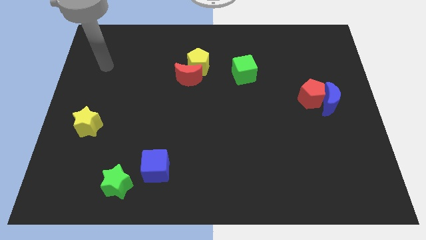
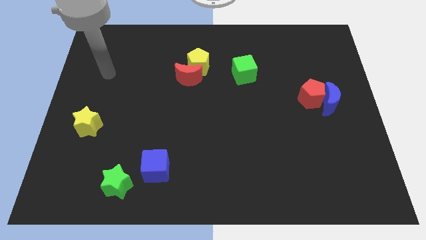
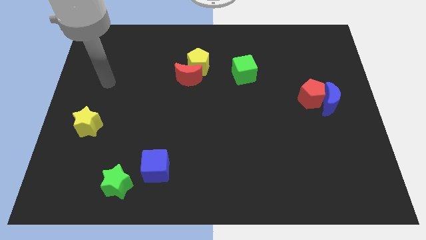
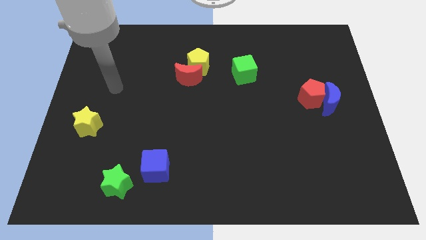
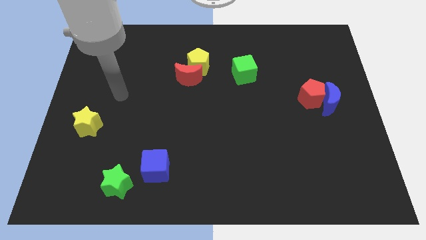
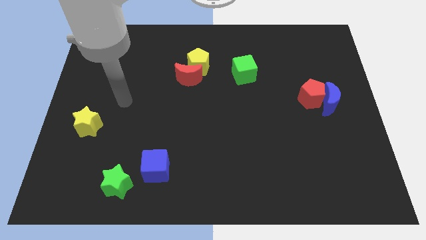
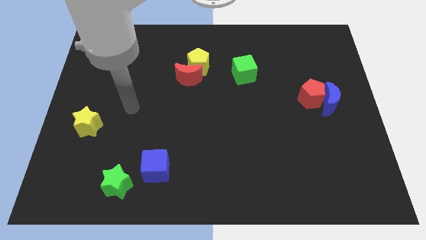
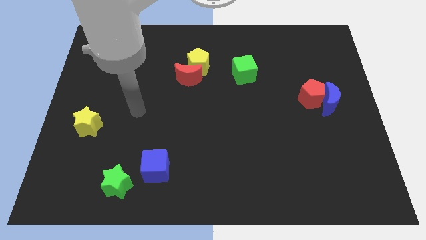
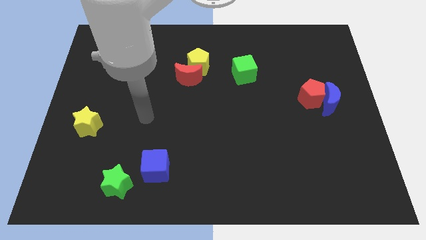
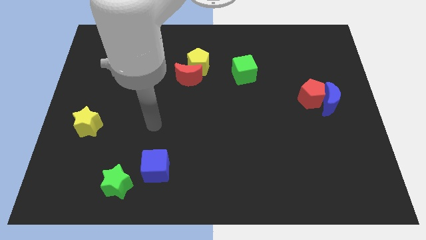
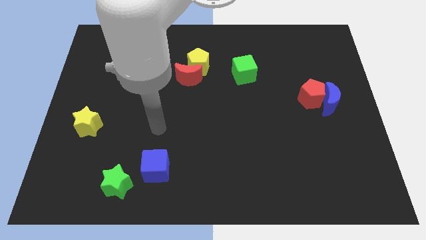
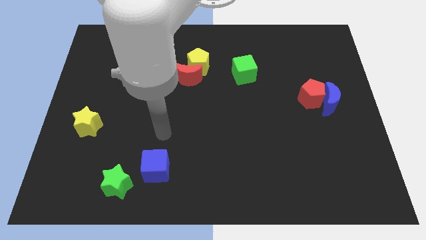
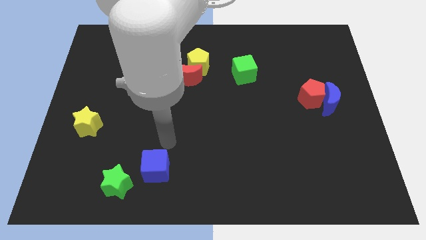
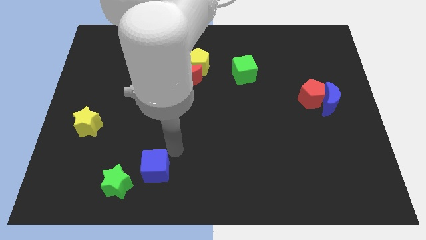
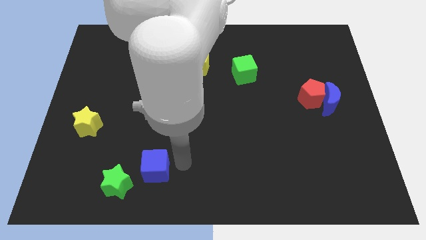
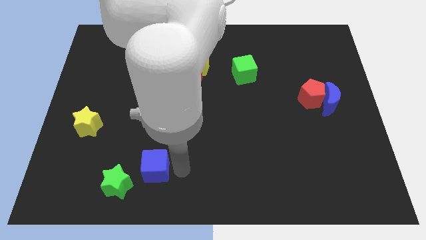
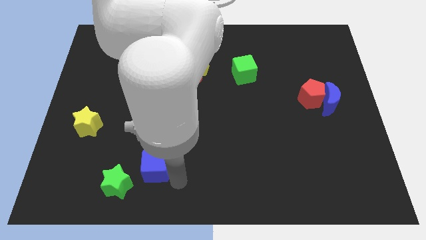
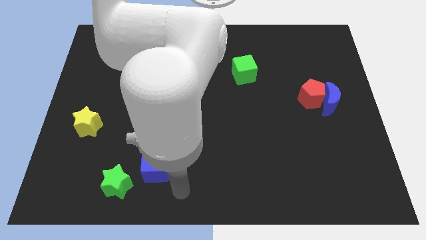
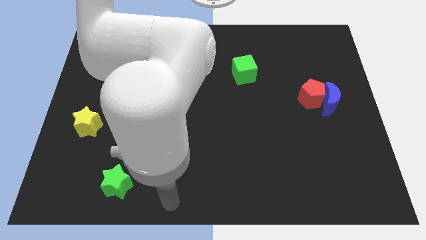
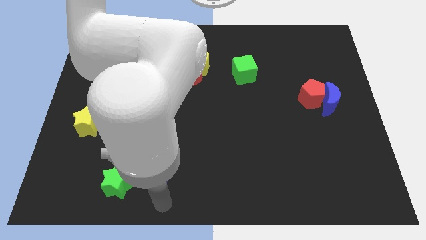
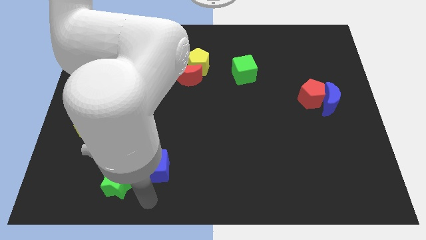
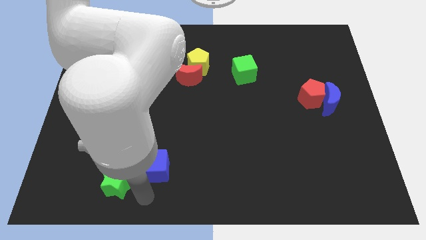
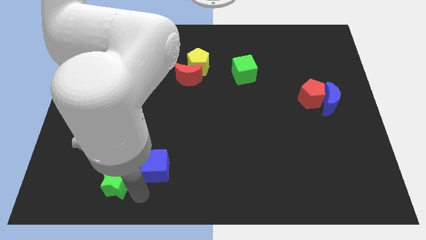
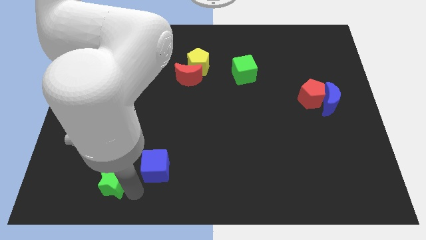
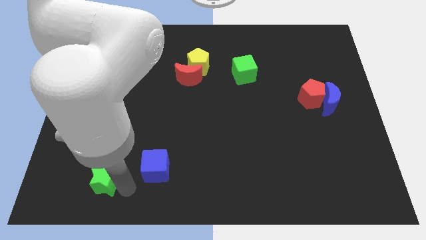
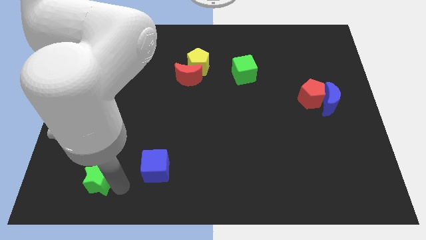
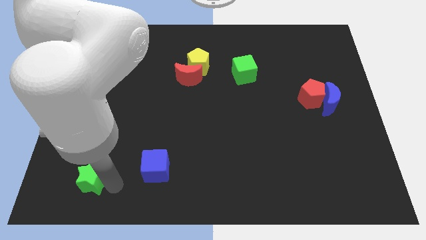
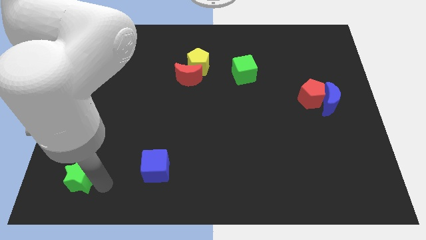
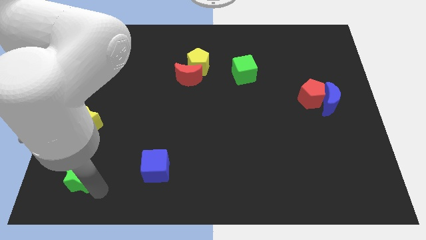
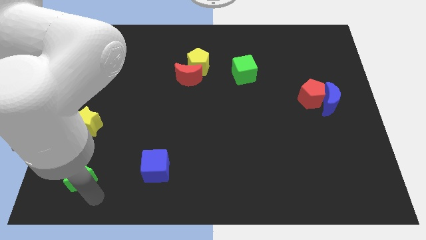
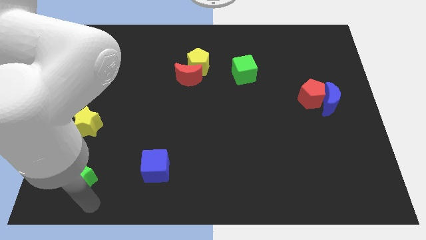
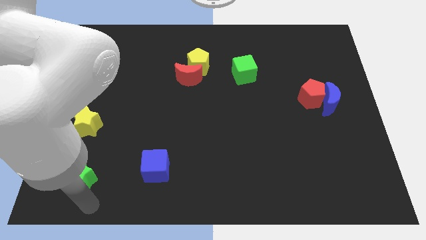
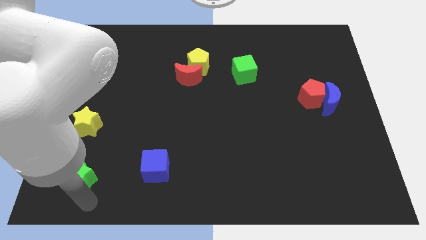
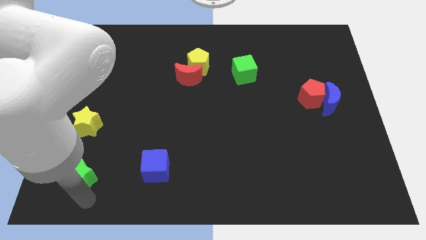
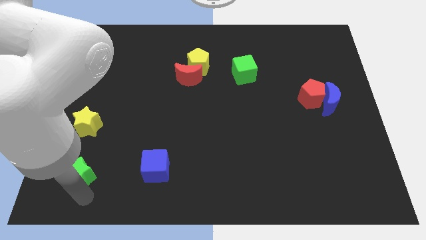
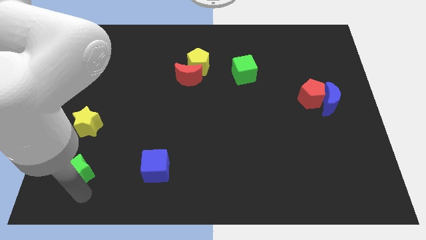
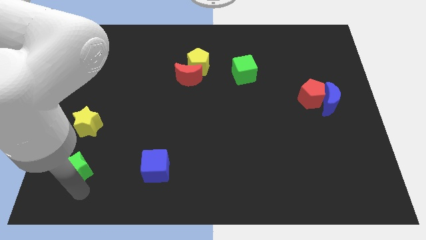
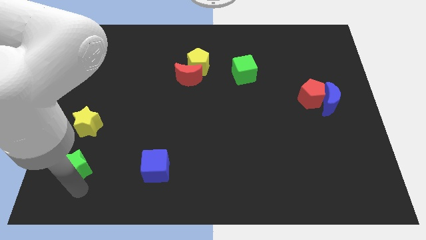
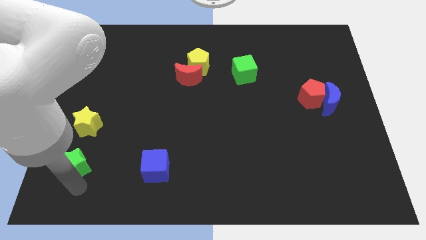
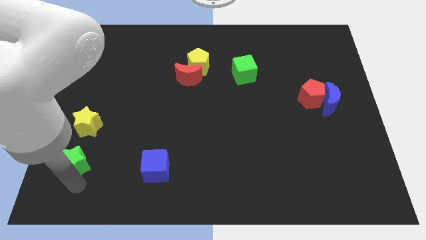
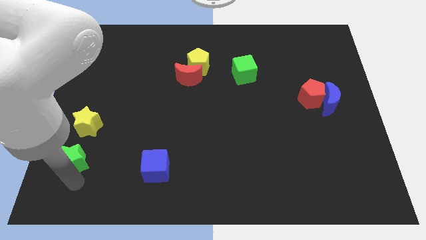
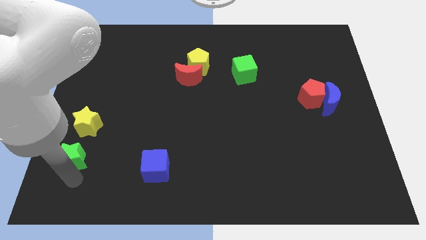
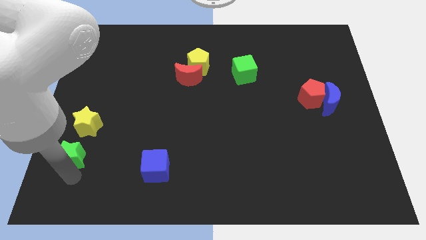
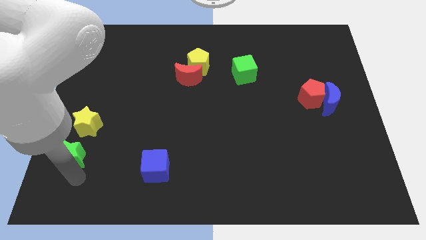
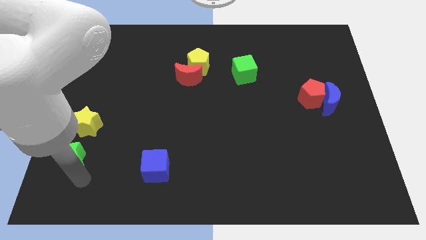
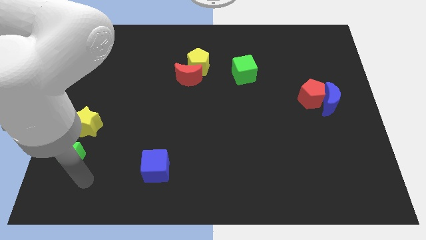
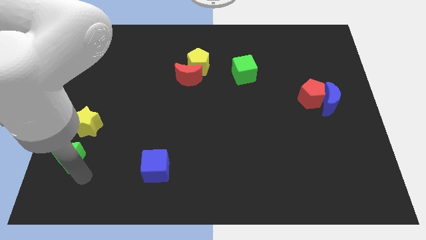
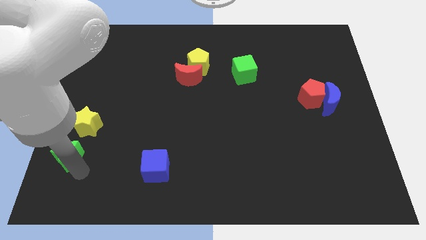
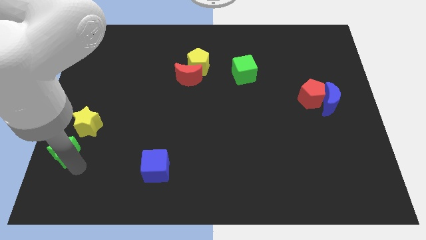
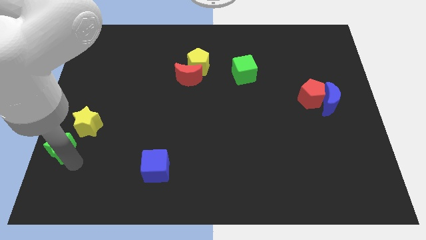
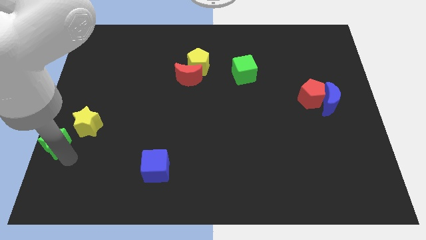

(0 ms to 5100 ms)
slide the green star to the center left

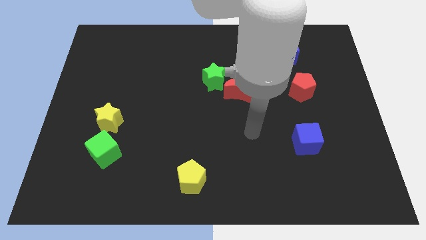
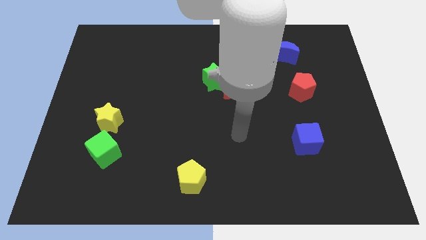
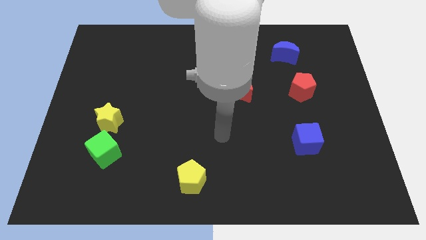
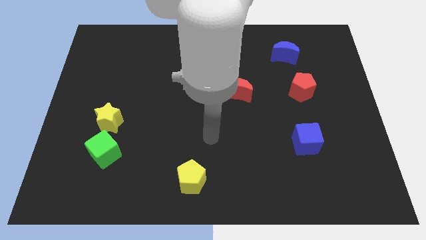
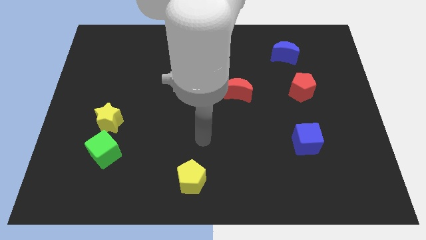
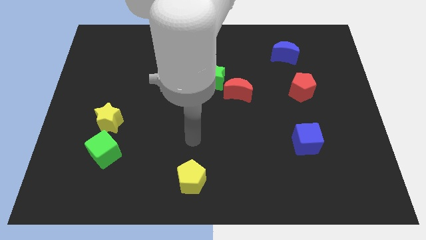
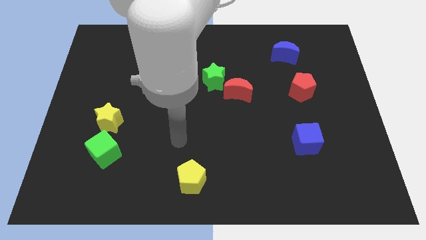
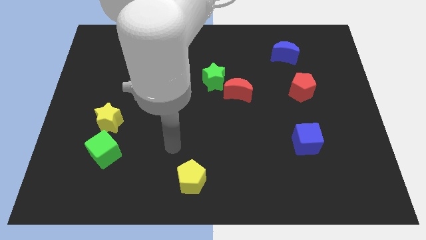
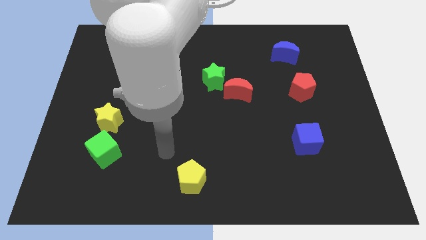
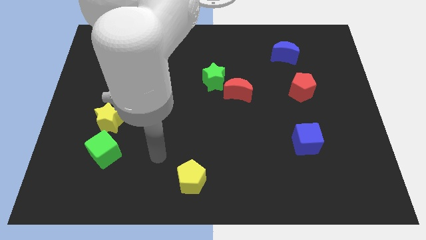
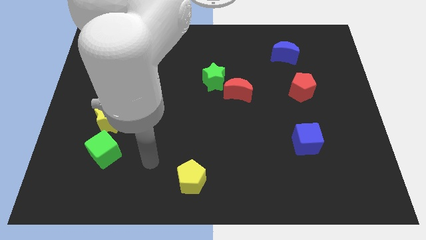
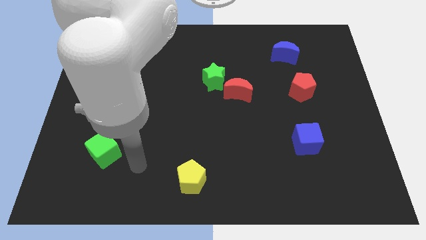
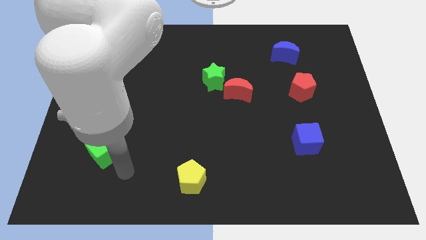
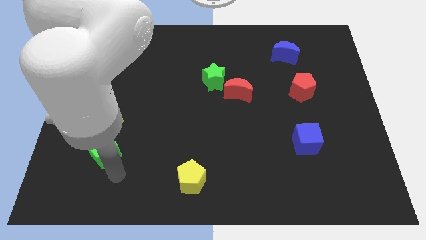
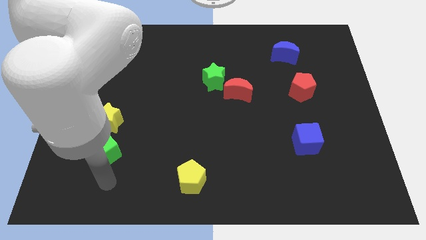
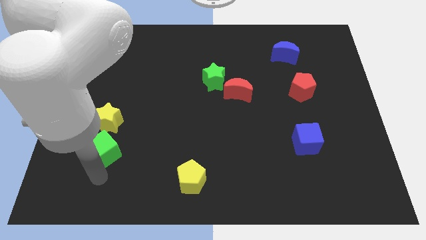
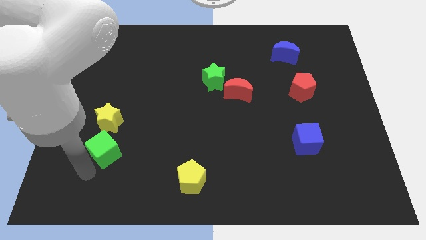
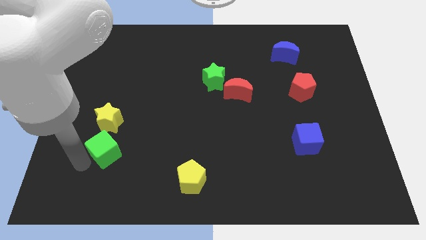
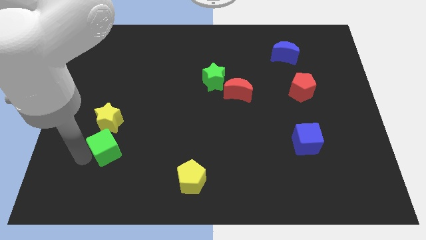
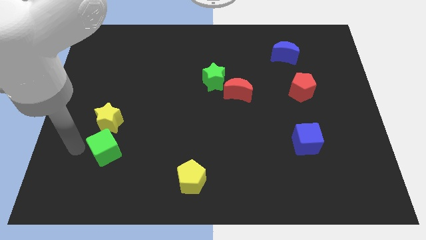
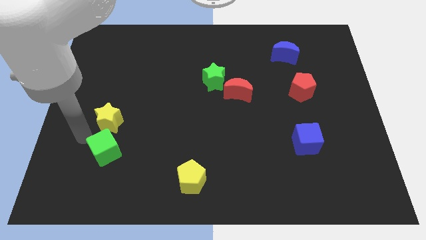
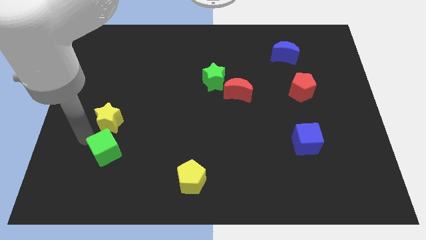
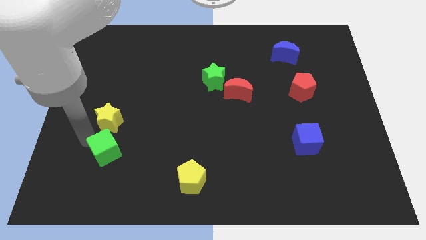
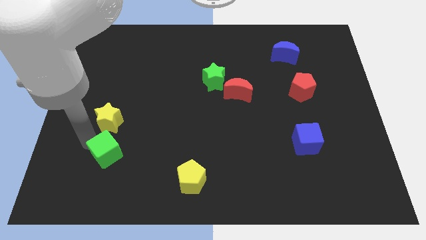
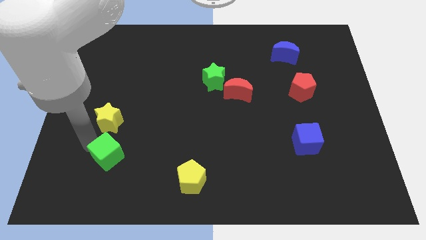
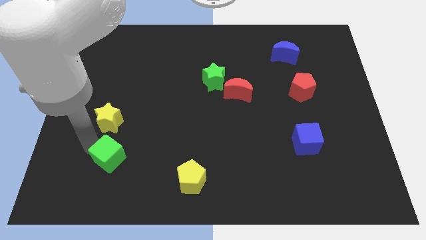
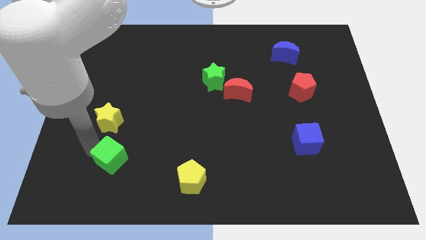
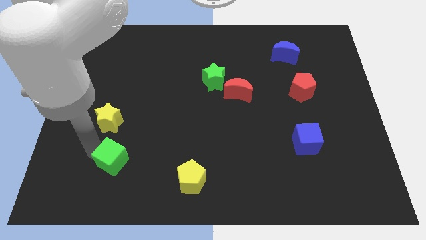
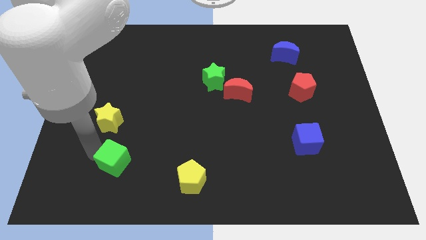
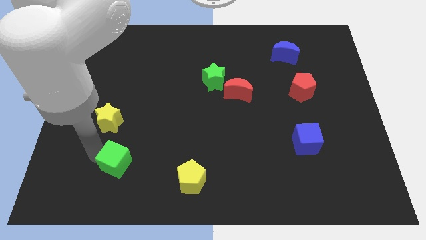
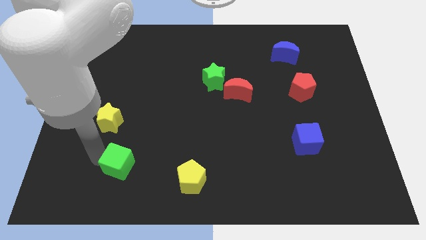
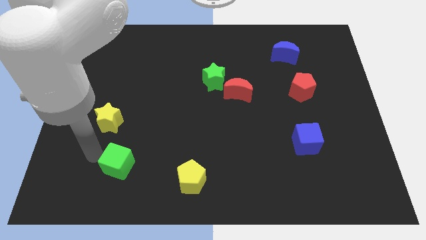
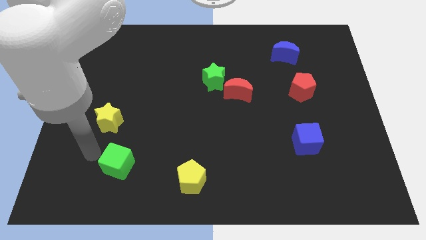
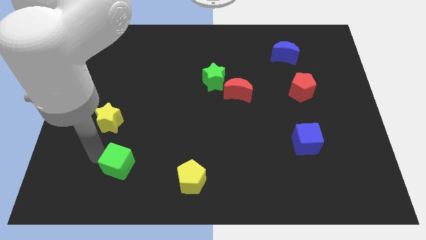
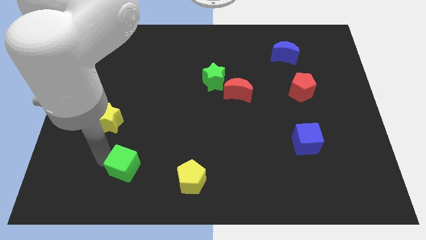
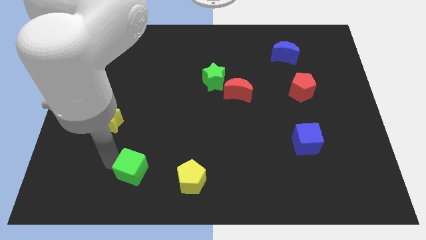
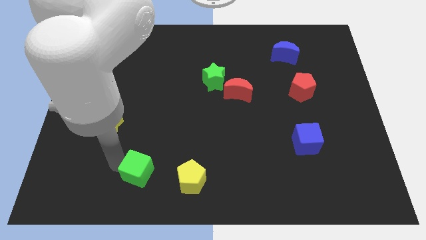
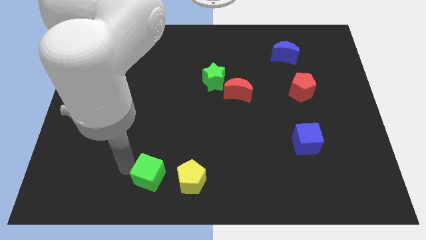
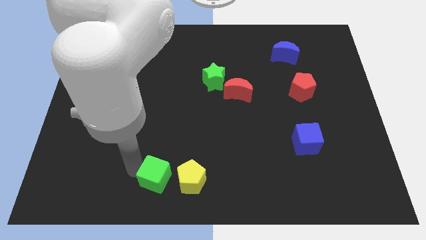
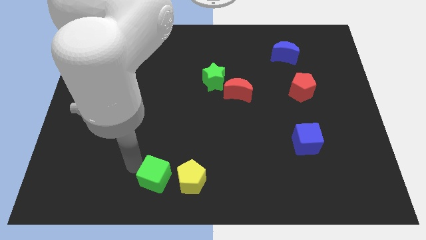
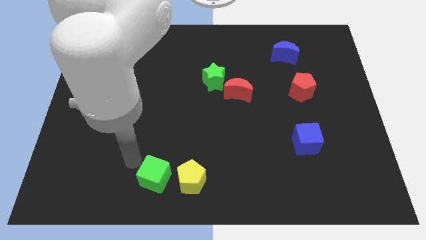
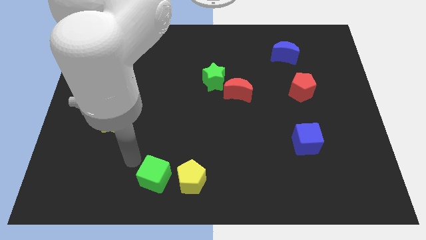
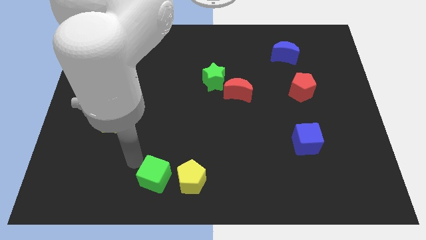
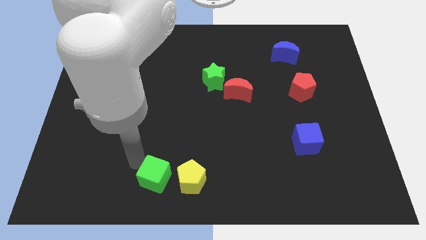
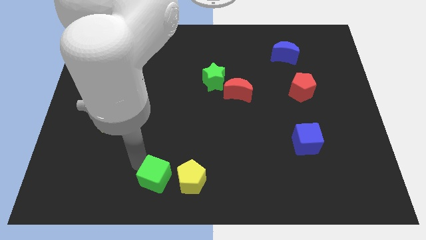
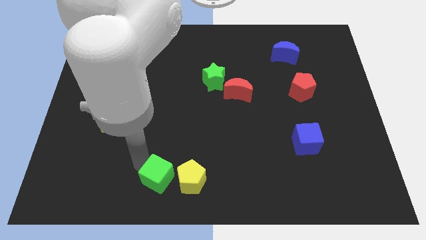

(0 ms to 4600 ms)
slide the green cube to the bottom
